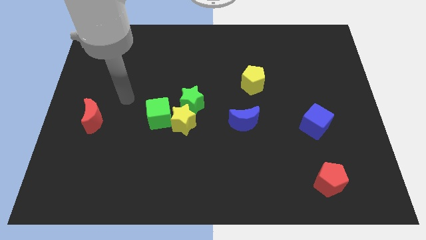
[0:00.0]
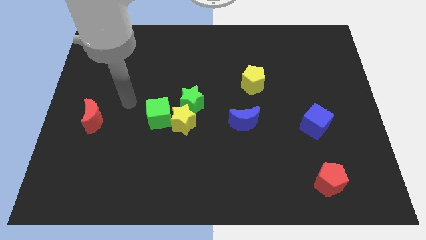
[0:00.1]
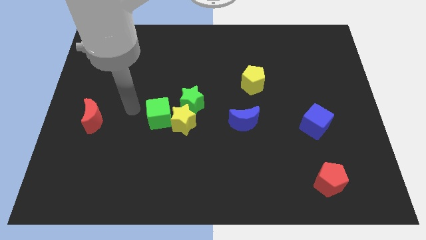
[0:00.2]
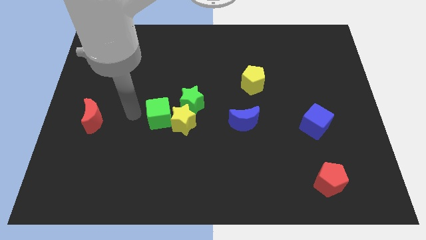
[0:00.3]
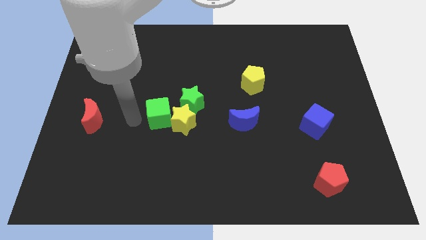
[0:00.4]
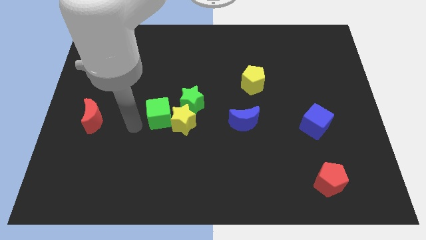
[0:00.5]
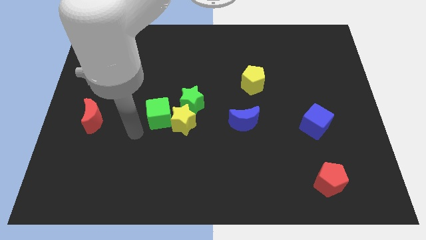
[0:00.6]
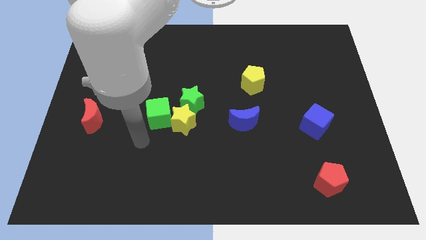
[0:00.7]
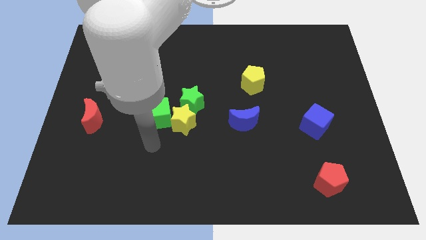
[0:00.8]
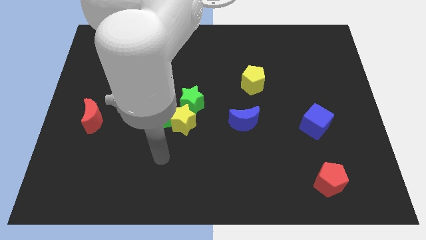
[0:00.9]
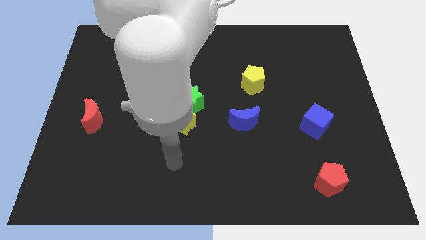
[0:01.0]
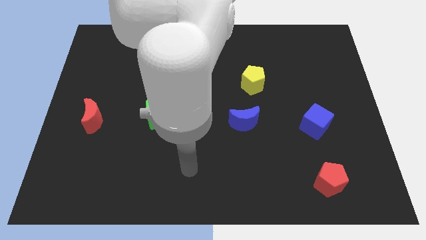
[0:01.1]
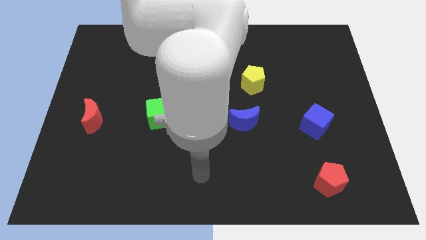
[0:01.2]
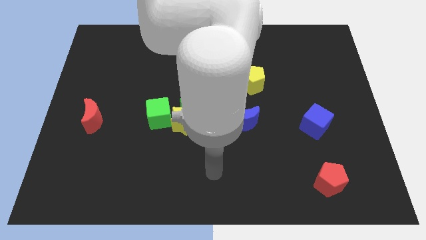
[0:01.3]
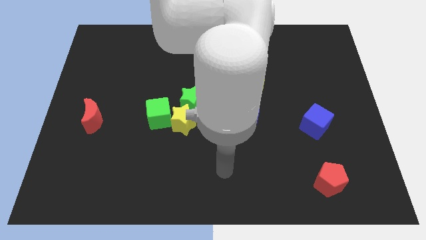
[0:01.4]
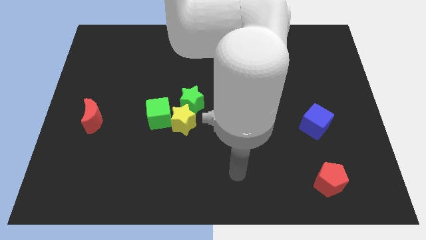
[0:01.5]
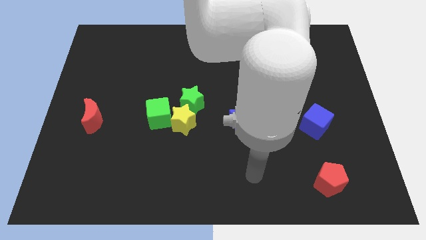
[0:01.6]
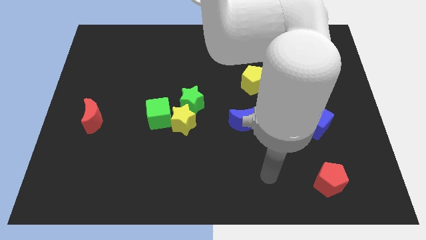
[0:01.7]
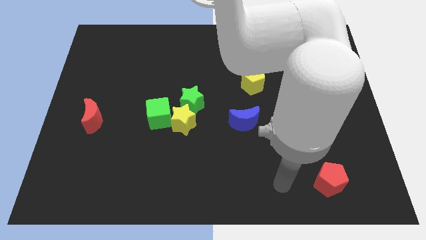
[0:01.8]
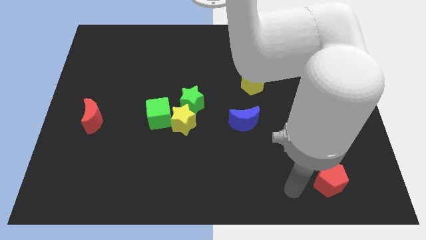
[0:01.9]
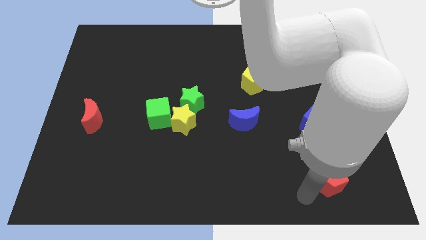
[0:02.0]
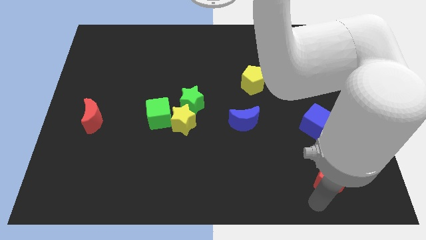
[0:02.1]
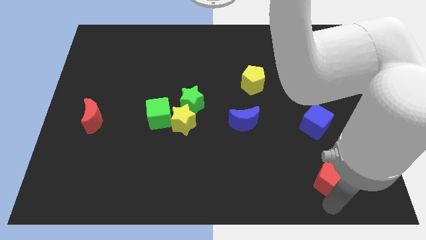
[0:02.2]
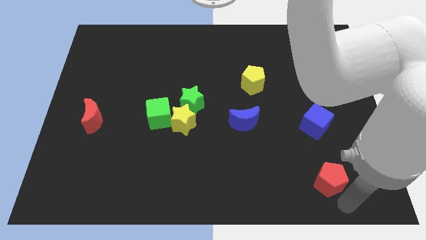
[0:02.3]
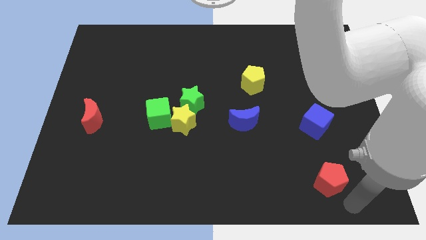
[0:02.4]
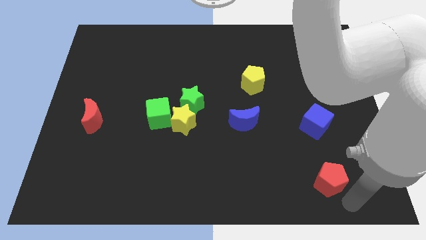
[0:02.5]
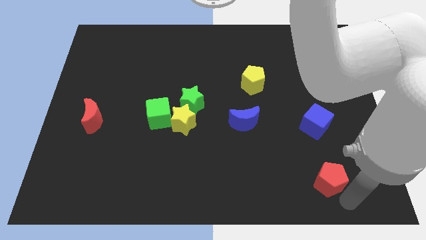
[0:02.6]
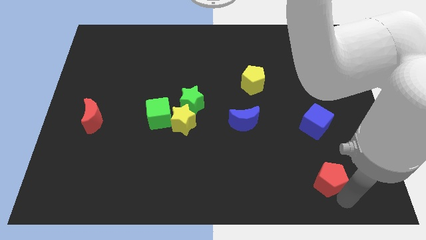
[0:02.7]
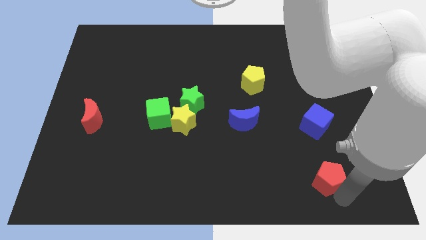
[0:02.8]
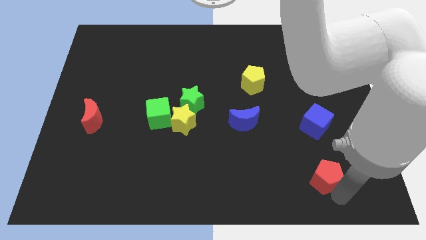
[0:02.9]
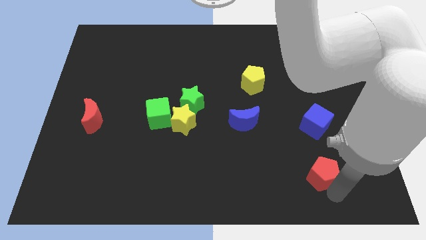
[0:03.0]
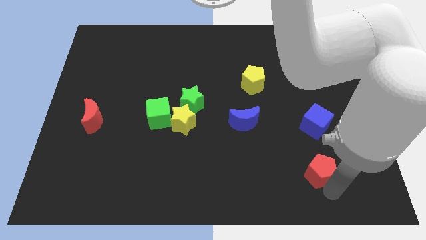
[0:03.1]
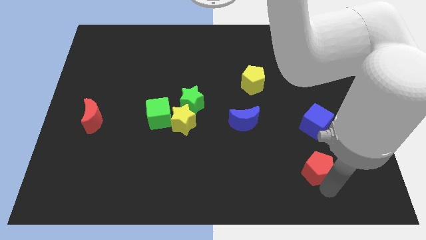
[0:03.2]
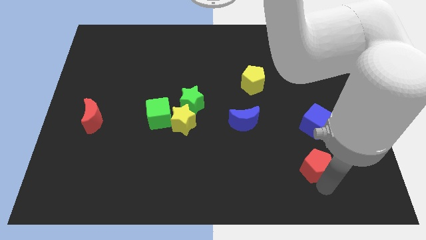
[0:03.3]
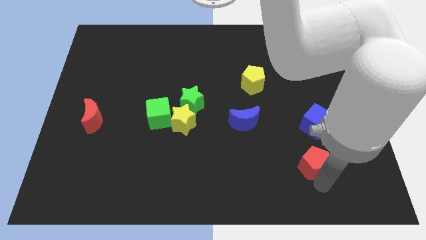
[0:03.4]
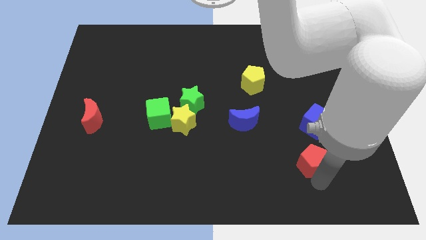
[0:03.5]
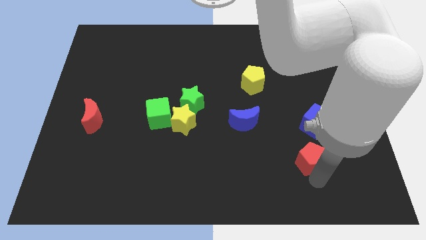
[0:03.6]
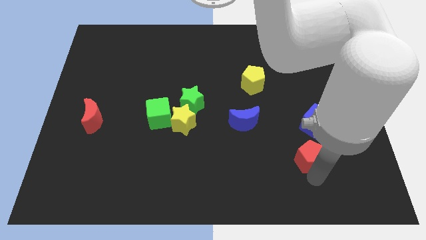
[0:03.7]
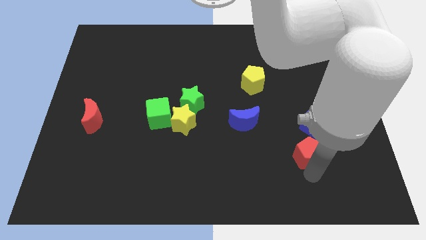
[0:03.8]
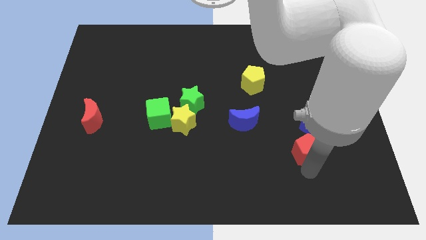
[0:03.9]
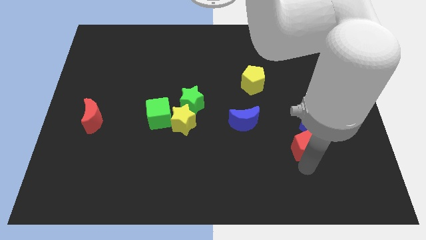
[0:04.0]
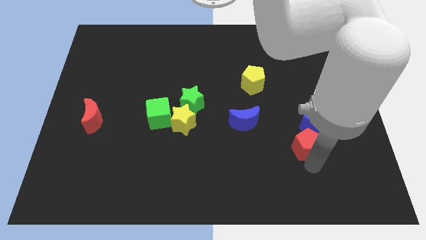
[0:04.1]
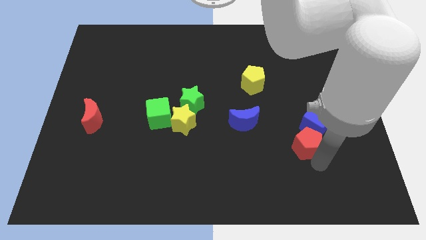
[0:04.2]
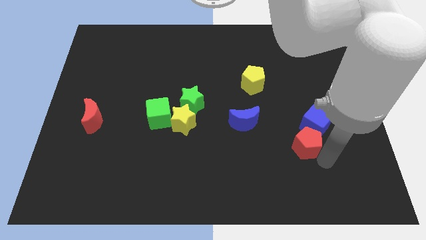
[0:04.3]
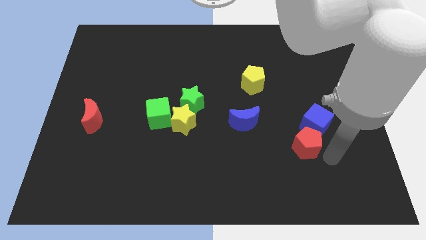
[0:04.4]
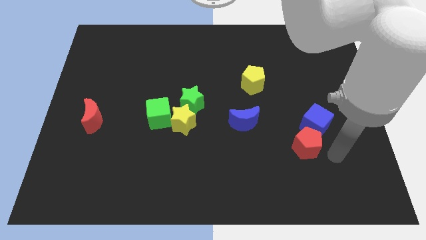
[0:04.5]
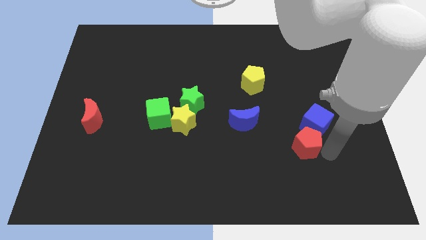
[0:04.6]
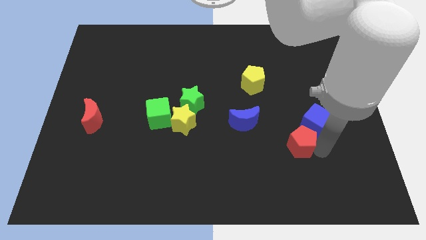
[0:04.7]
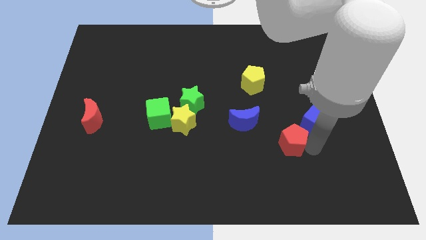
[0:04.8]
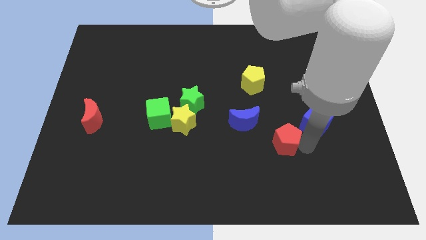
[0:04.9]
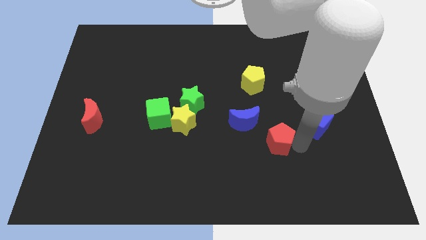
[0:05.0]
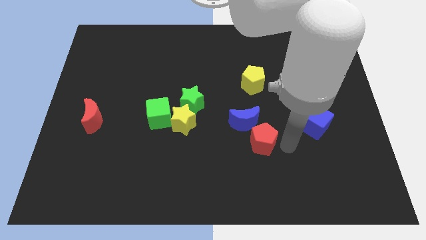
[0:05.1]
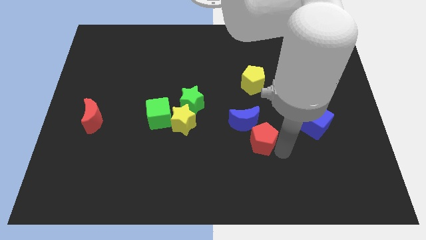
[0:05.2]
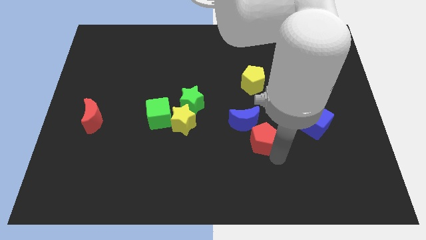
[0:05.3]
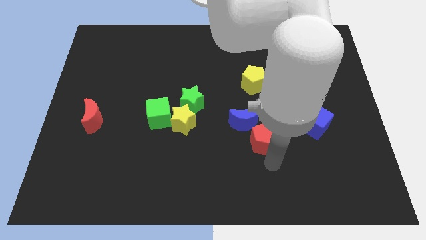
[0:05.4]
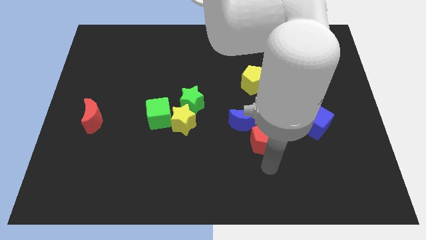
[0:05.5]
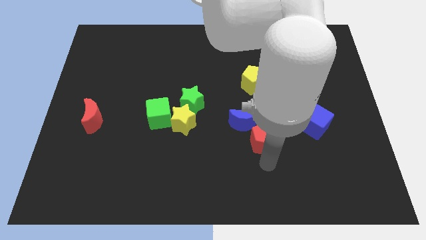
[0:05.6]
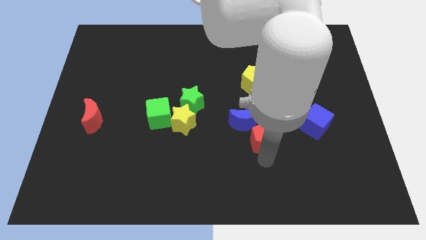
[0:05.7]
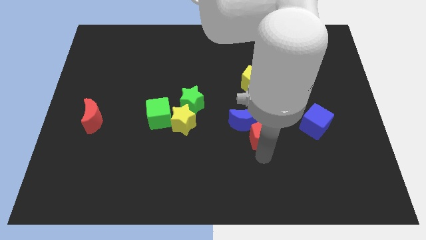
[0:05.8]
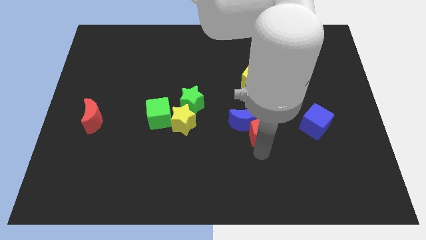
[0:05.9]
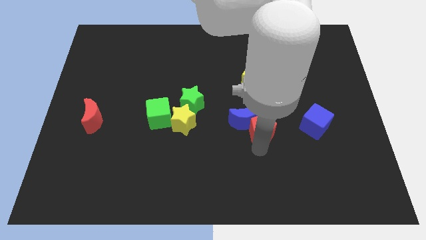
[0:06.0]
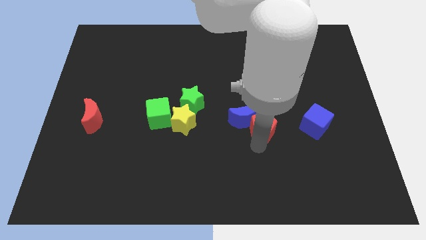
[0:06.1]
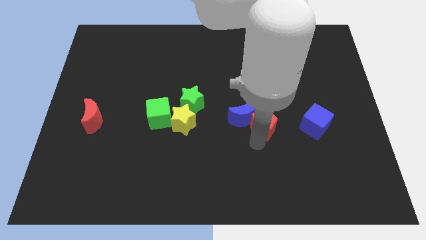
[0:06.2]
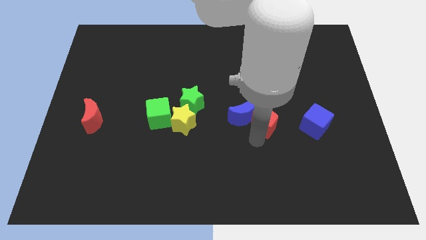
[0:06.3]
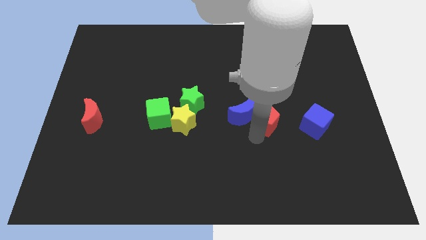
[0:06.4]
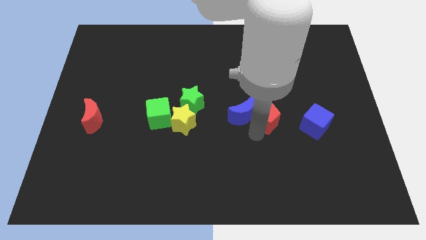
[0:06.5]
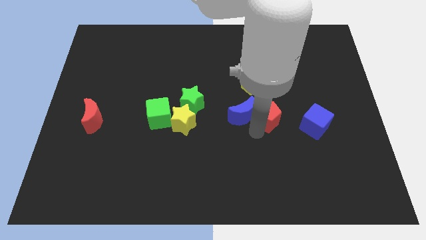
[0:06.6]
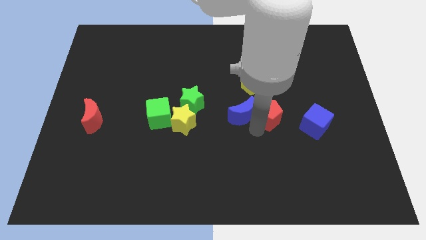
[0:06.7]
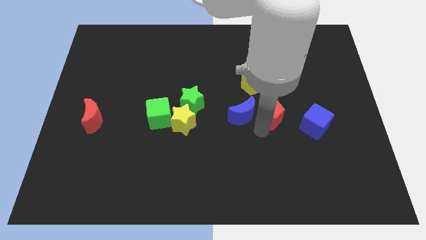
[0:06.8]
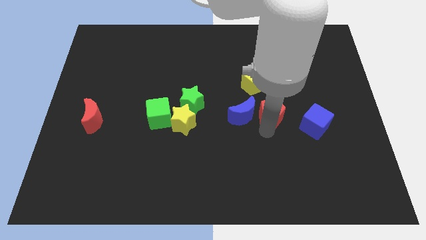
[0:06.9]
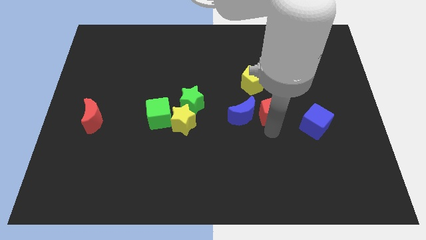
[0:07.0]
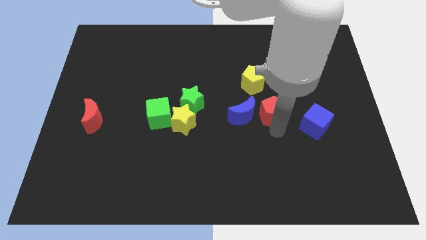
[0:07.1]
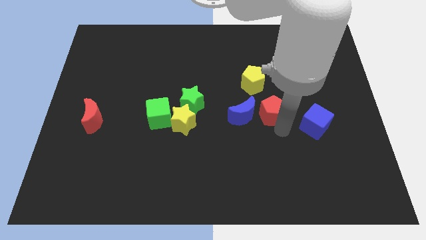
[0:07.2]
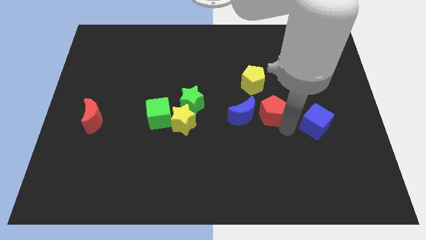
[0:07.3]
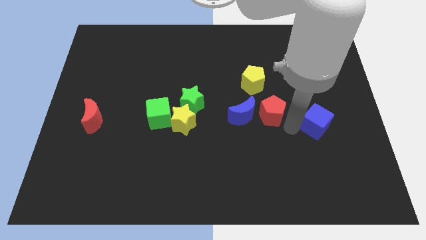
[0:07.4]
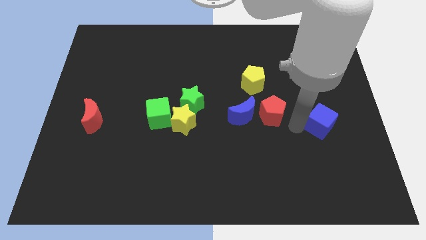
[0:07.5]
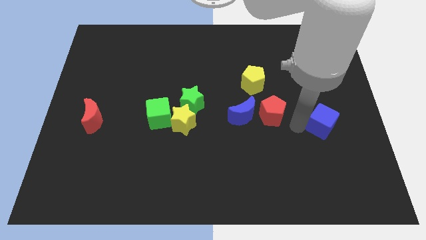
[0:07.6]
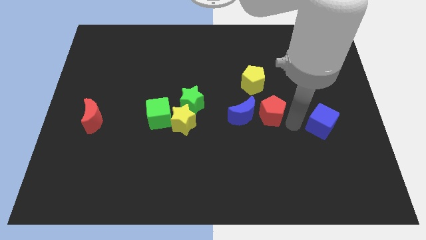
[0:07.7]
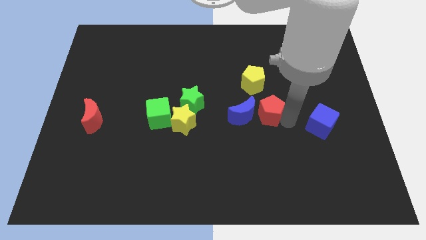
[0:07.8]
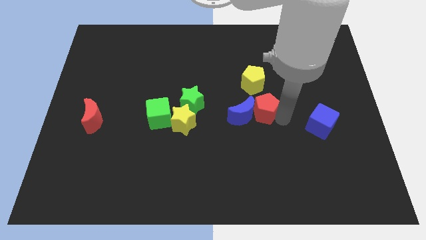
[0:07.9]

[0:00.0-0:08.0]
move the red pentagon to the center of the board
